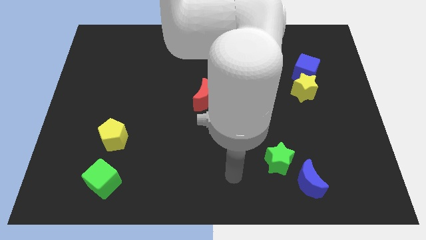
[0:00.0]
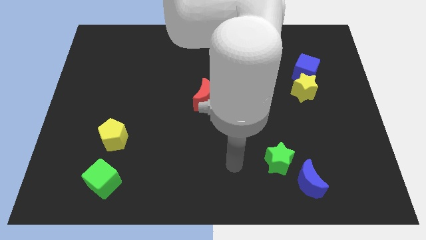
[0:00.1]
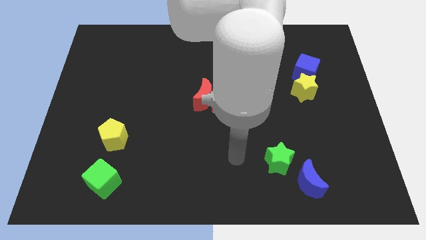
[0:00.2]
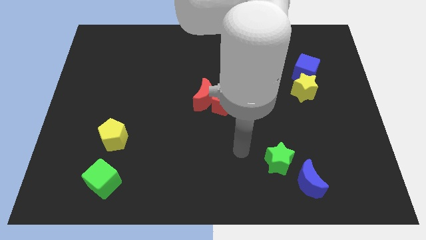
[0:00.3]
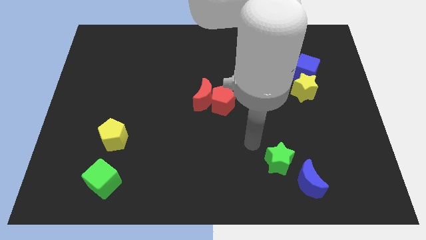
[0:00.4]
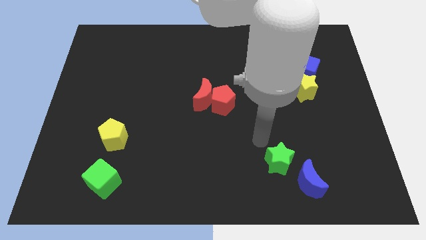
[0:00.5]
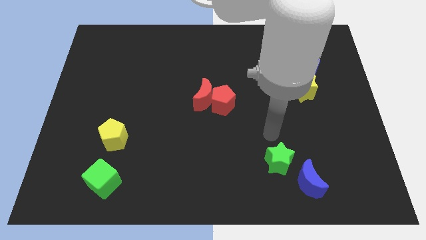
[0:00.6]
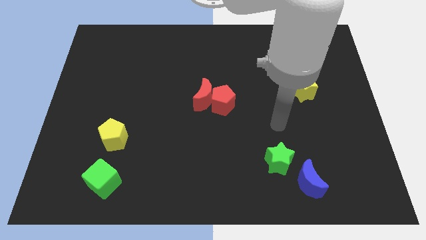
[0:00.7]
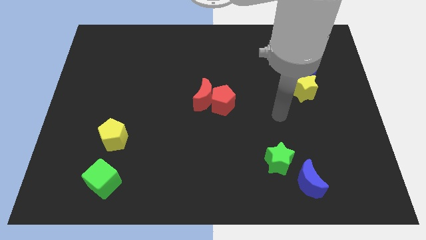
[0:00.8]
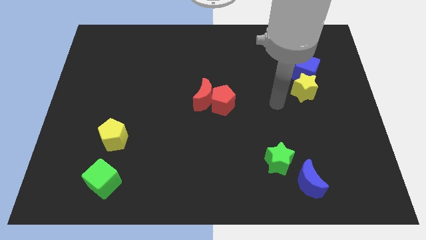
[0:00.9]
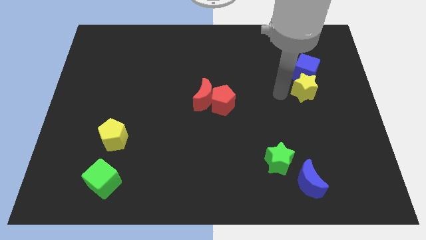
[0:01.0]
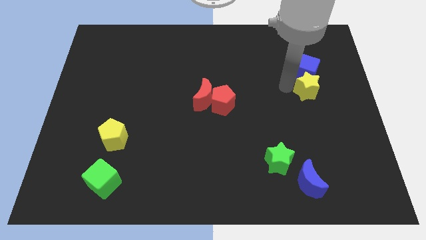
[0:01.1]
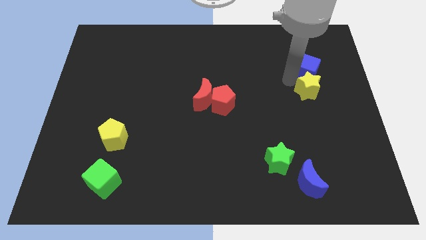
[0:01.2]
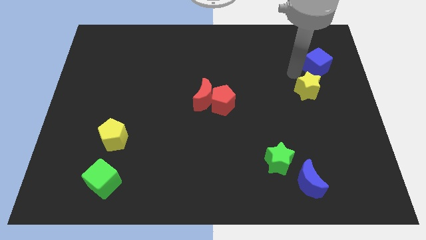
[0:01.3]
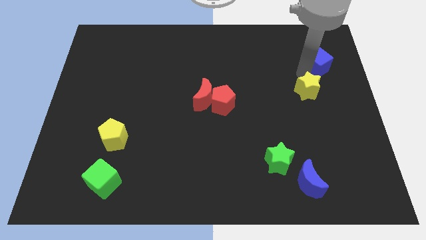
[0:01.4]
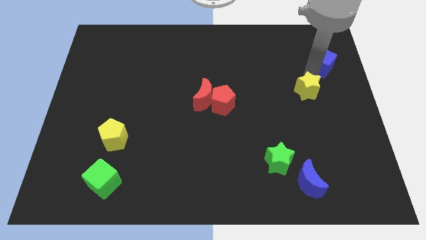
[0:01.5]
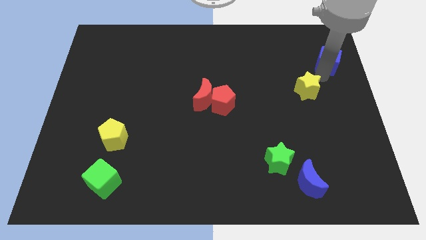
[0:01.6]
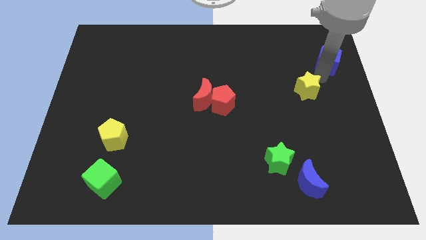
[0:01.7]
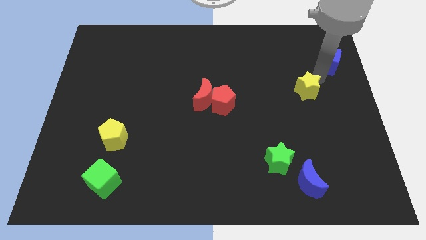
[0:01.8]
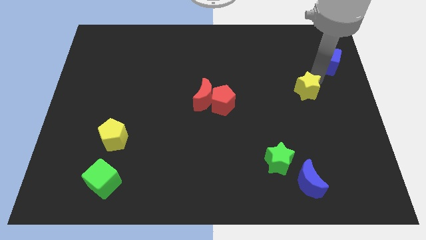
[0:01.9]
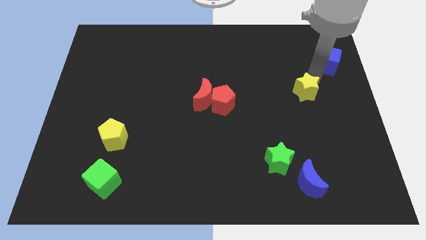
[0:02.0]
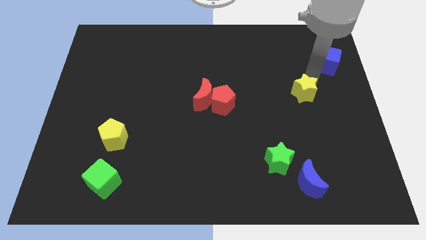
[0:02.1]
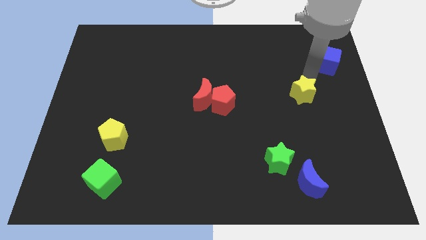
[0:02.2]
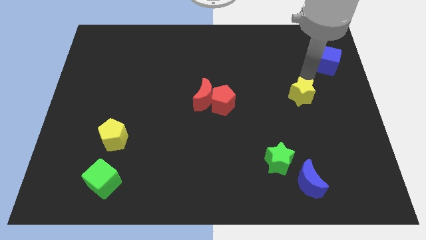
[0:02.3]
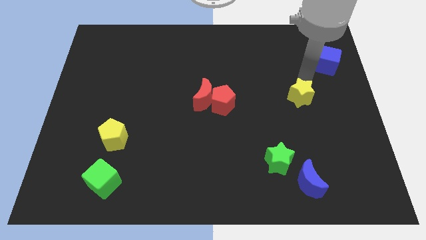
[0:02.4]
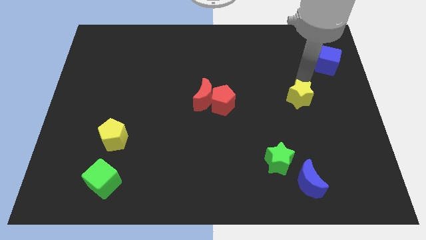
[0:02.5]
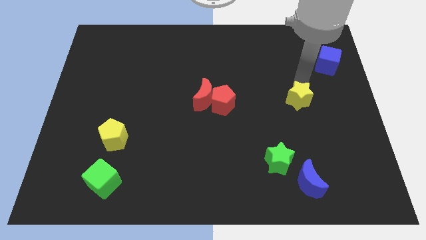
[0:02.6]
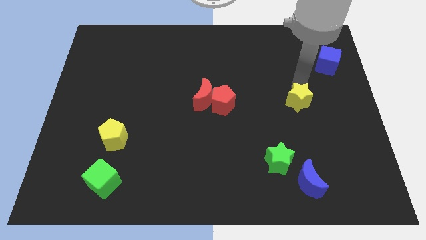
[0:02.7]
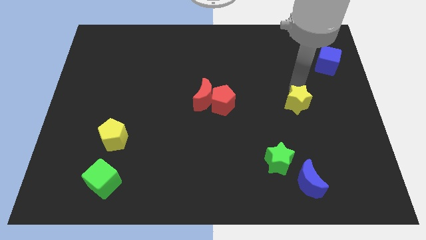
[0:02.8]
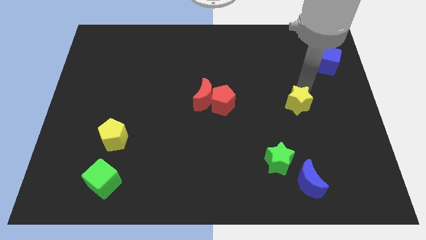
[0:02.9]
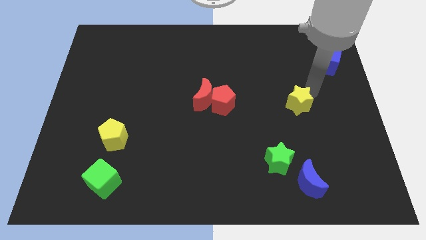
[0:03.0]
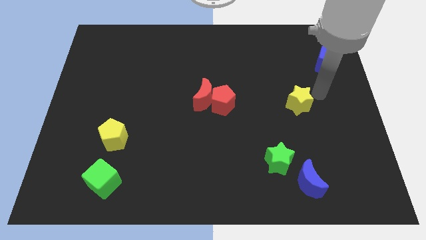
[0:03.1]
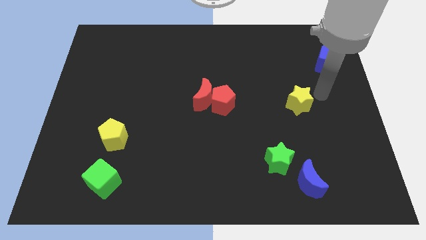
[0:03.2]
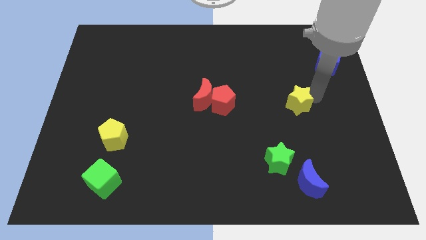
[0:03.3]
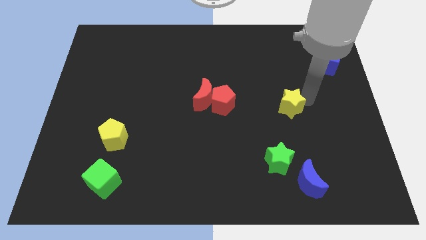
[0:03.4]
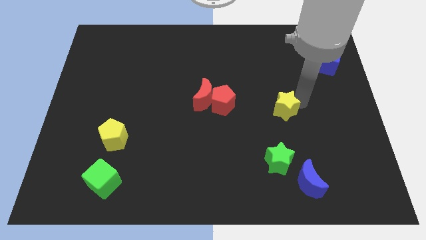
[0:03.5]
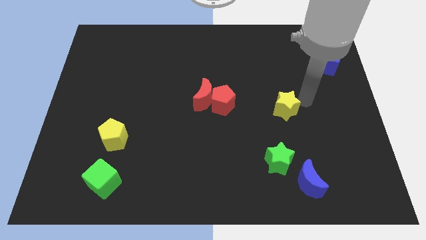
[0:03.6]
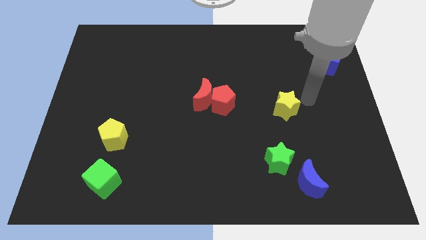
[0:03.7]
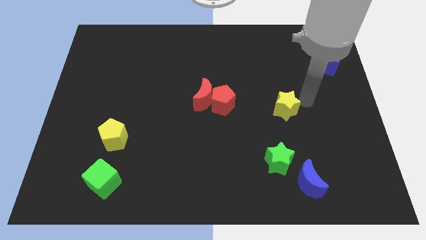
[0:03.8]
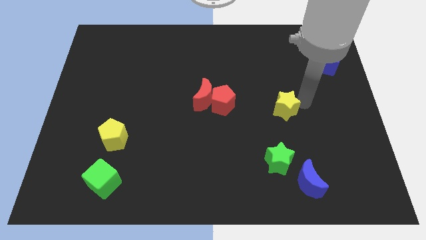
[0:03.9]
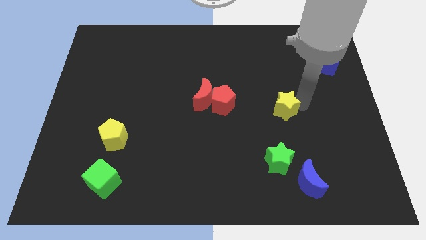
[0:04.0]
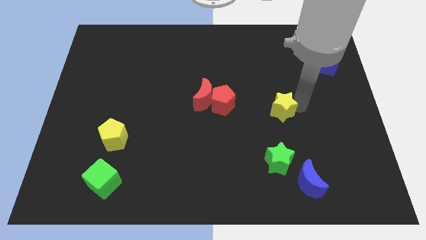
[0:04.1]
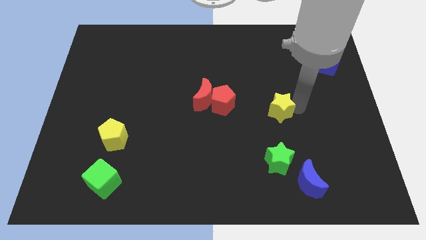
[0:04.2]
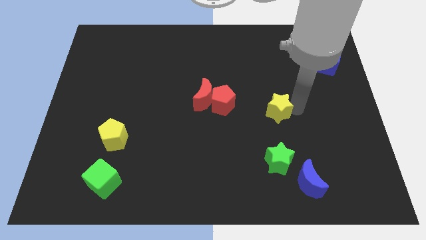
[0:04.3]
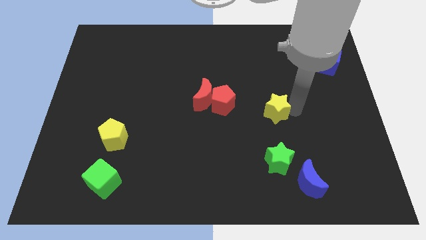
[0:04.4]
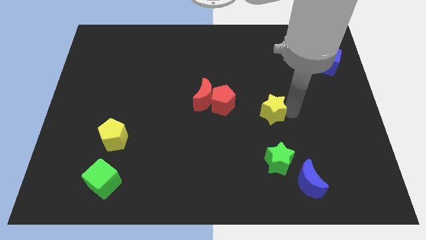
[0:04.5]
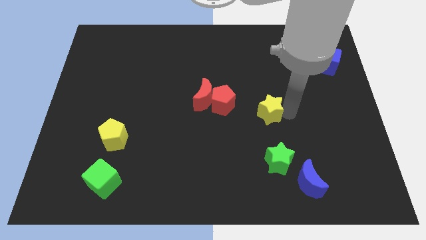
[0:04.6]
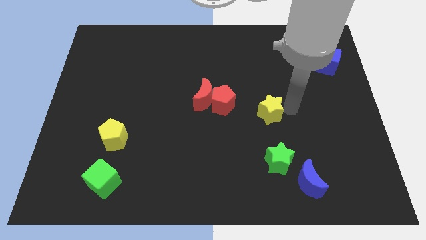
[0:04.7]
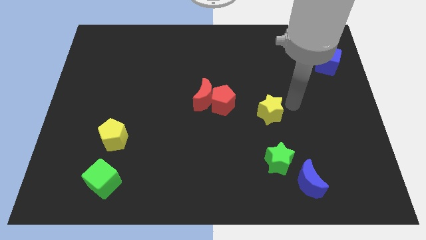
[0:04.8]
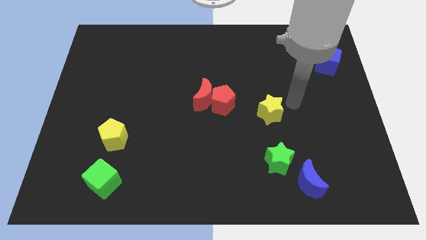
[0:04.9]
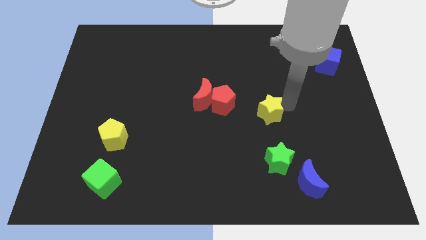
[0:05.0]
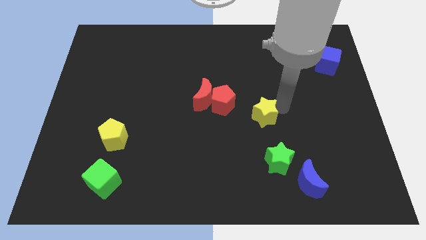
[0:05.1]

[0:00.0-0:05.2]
put the yellow star to the bottom right of the red pentagon

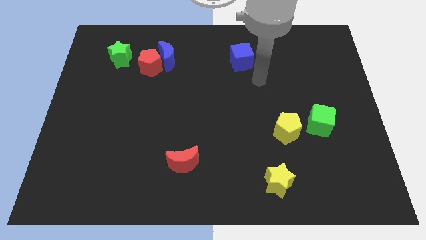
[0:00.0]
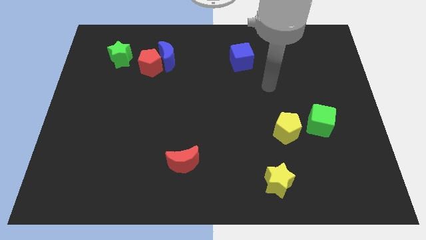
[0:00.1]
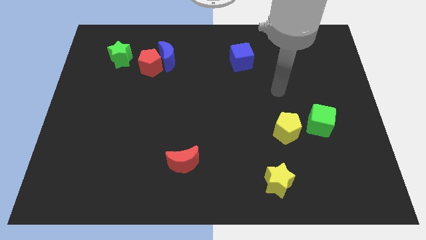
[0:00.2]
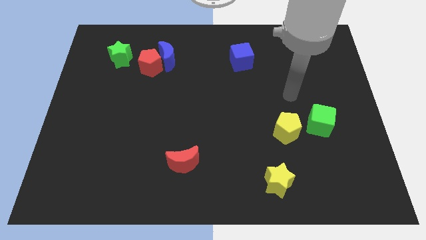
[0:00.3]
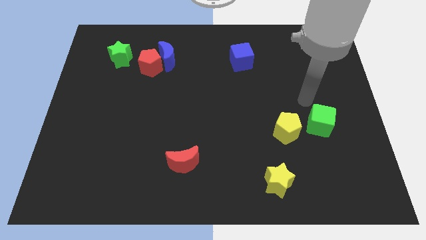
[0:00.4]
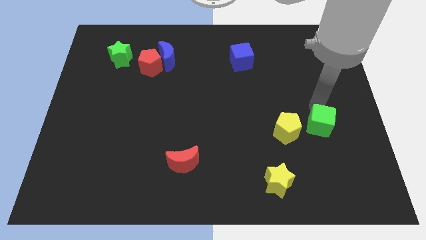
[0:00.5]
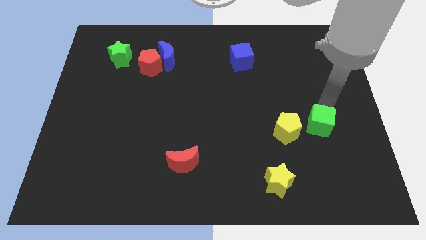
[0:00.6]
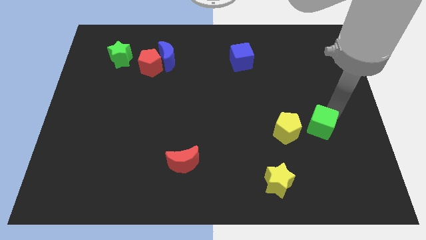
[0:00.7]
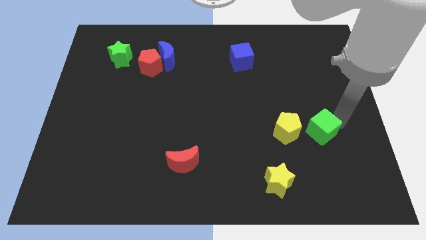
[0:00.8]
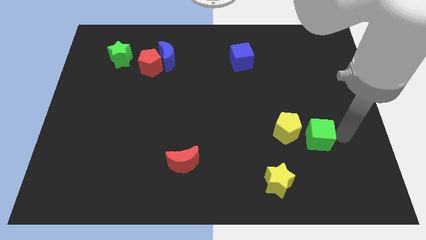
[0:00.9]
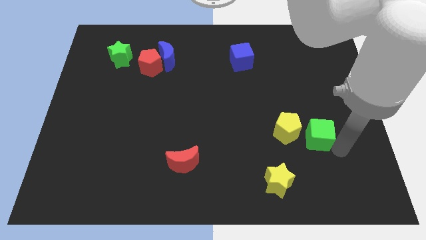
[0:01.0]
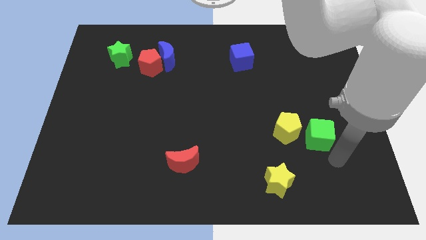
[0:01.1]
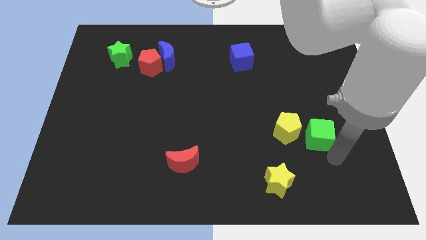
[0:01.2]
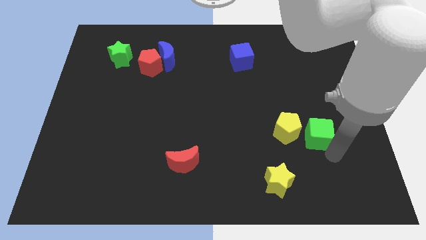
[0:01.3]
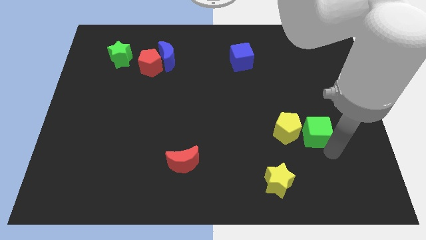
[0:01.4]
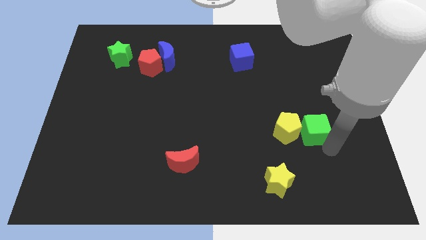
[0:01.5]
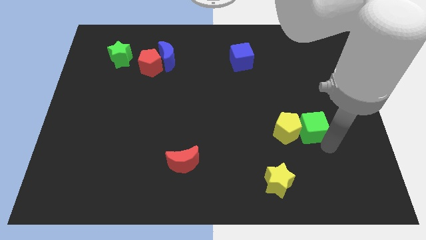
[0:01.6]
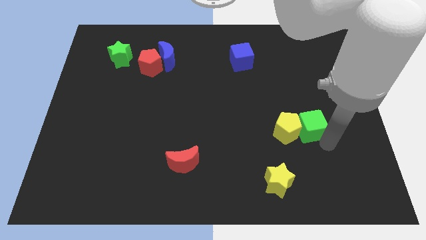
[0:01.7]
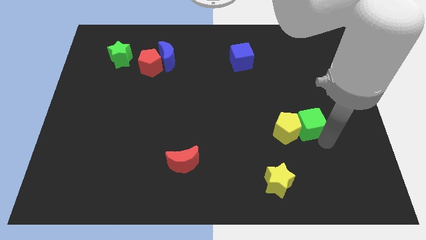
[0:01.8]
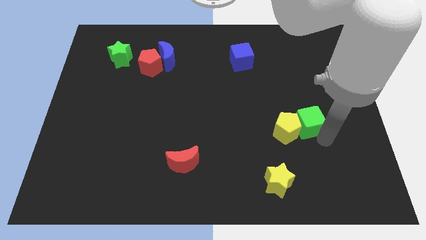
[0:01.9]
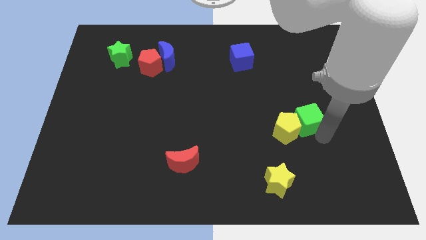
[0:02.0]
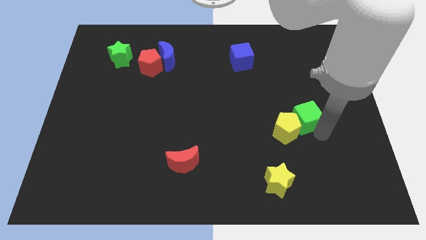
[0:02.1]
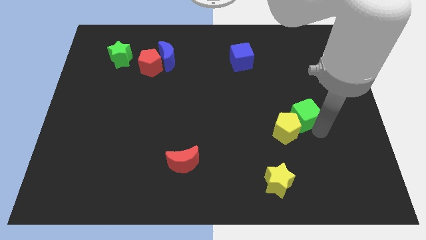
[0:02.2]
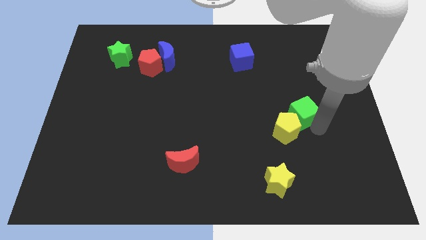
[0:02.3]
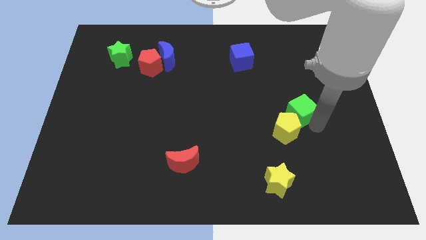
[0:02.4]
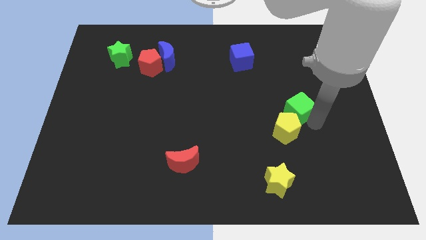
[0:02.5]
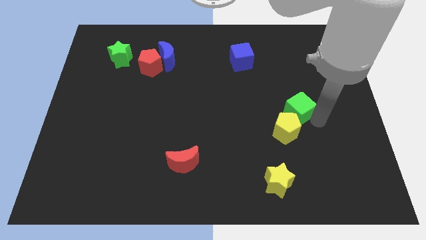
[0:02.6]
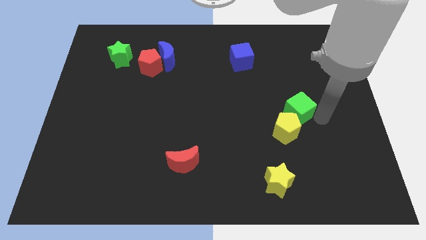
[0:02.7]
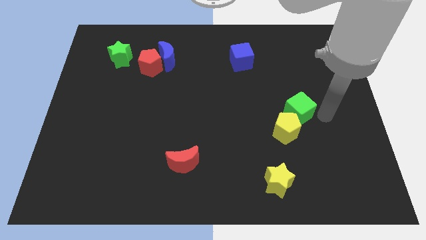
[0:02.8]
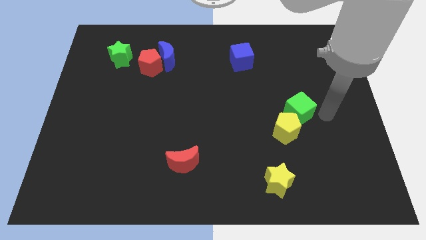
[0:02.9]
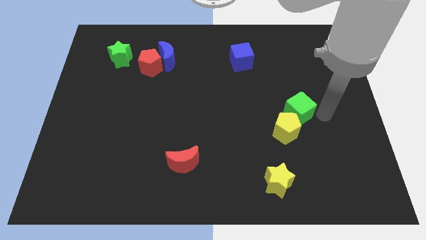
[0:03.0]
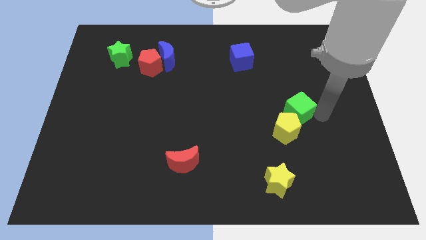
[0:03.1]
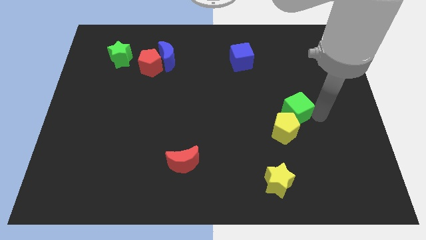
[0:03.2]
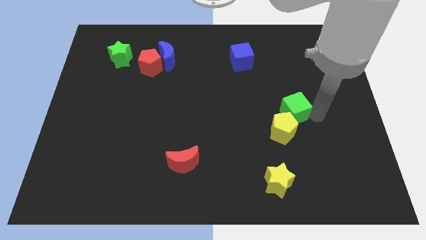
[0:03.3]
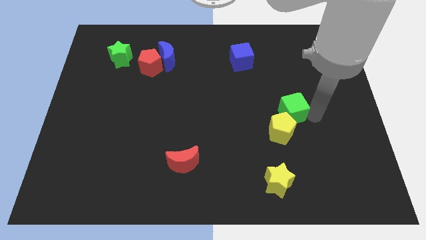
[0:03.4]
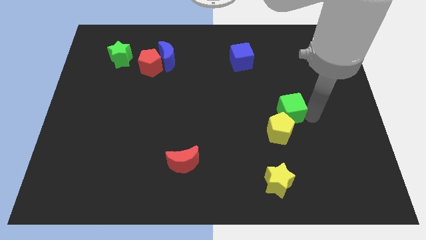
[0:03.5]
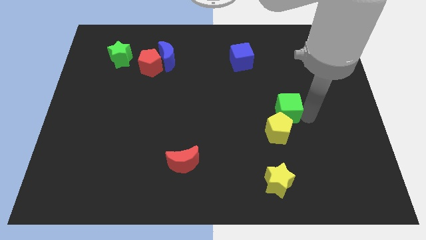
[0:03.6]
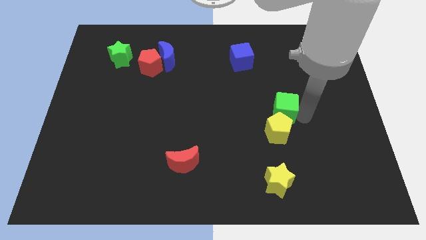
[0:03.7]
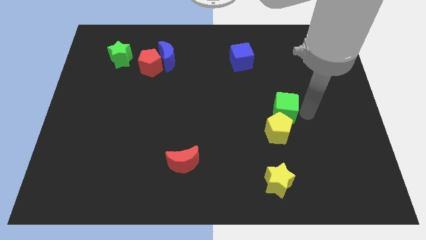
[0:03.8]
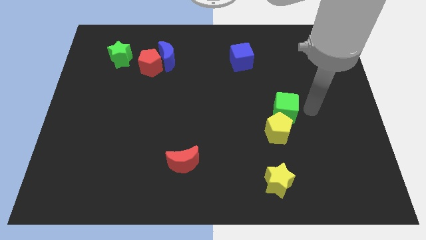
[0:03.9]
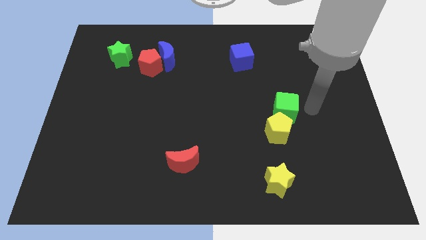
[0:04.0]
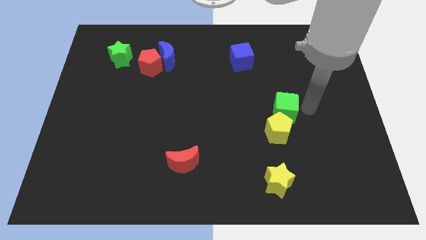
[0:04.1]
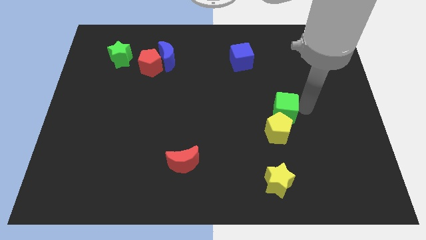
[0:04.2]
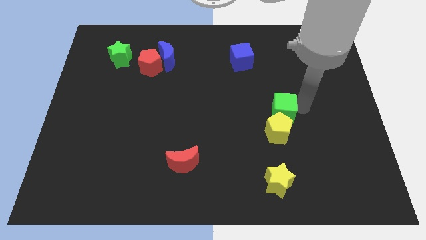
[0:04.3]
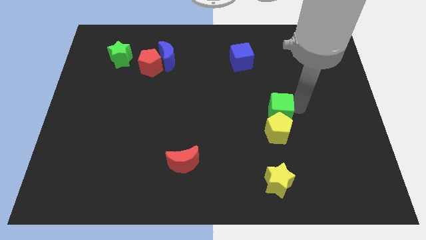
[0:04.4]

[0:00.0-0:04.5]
put the green cube to the top left of the yellow pentagon
